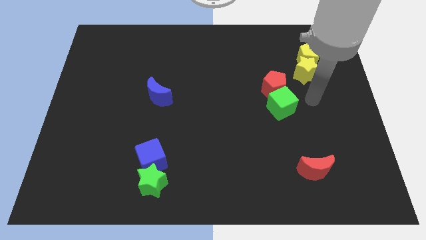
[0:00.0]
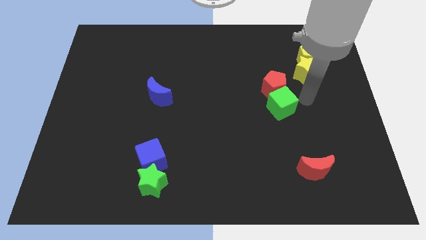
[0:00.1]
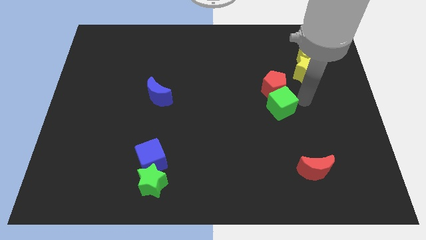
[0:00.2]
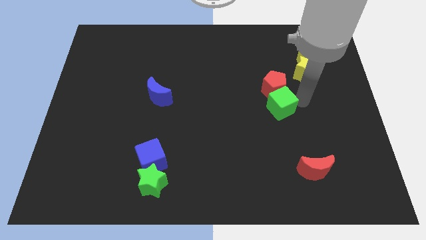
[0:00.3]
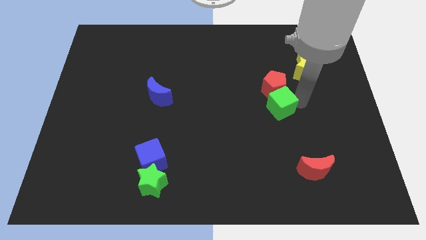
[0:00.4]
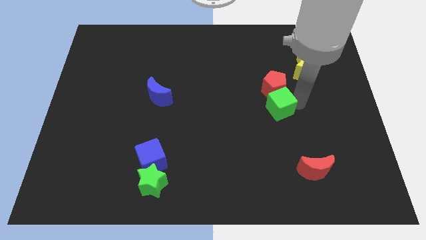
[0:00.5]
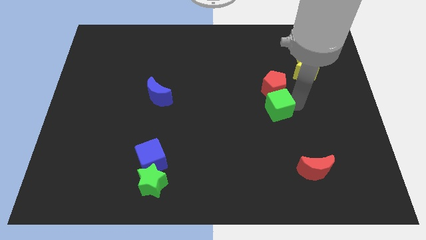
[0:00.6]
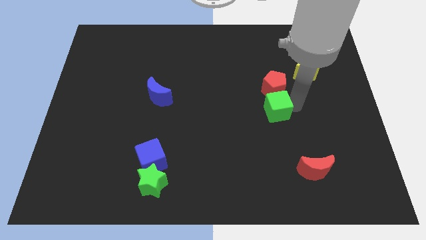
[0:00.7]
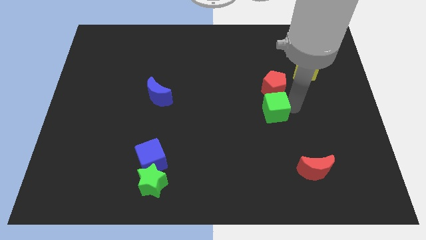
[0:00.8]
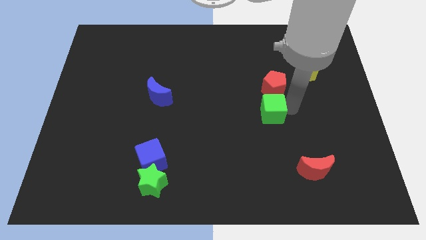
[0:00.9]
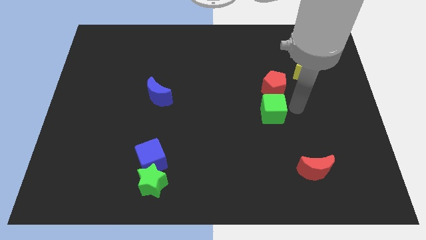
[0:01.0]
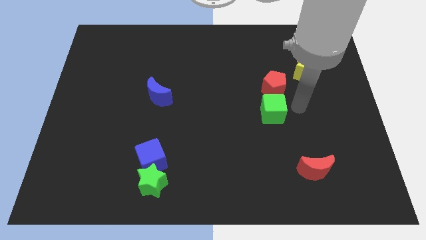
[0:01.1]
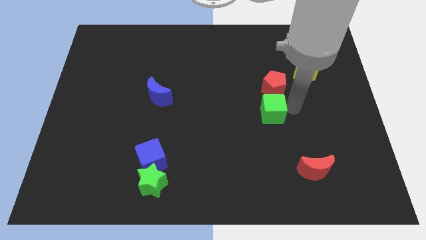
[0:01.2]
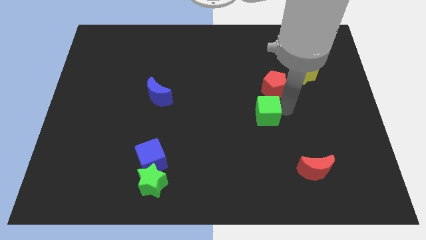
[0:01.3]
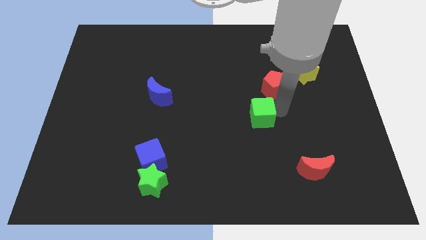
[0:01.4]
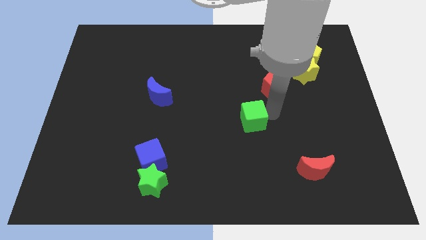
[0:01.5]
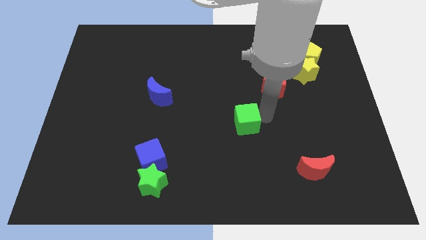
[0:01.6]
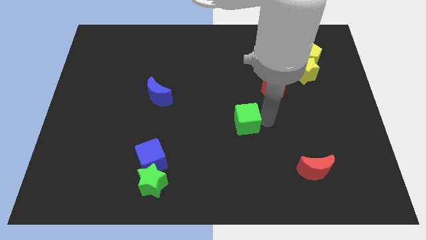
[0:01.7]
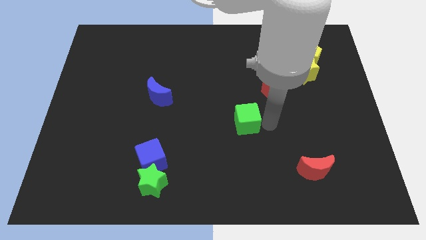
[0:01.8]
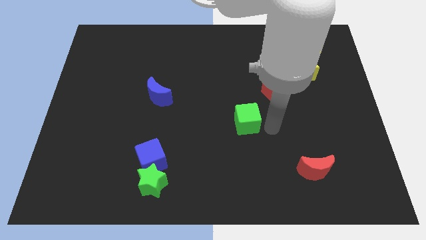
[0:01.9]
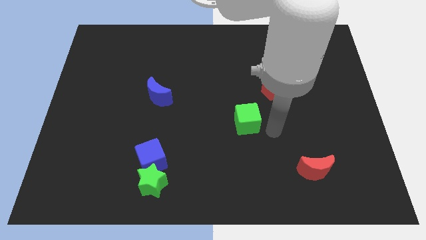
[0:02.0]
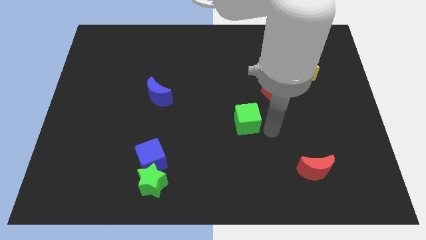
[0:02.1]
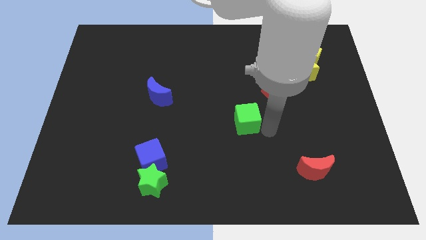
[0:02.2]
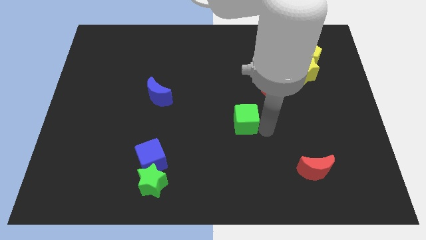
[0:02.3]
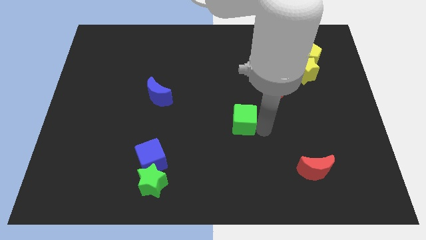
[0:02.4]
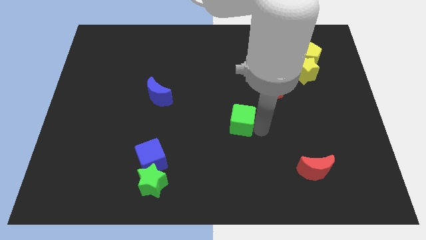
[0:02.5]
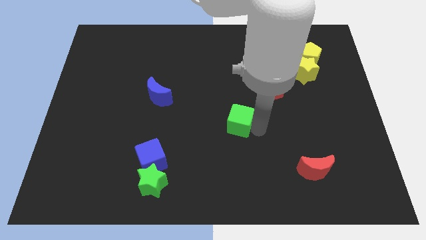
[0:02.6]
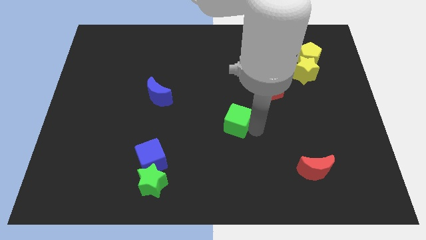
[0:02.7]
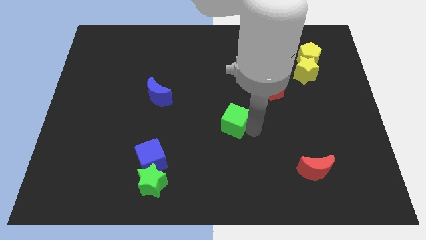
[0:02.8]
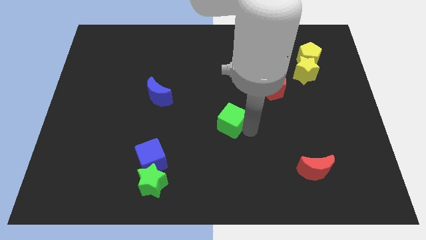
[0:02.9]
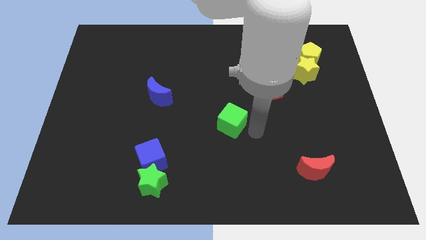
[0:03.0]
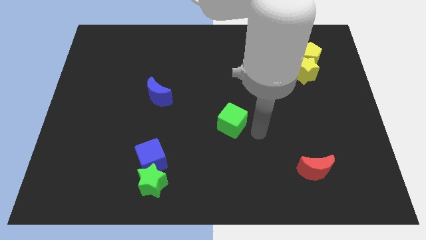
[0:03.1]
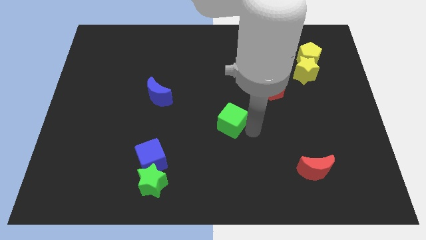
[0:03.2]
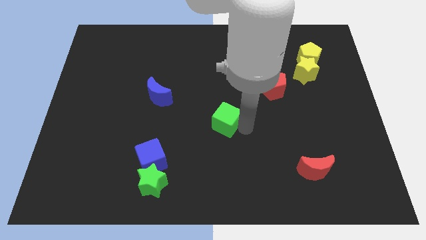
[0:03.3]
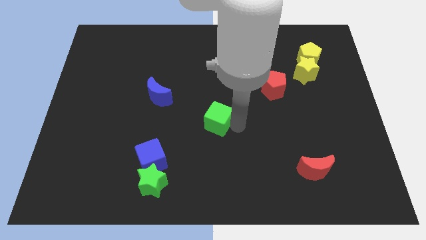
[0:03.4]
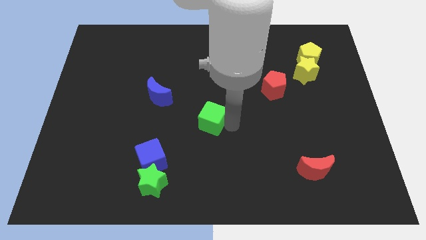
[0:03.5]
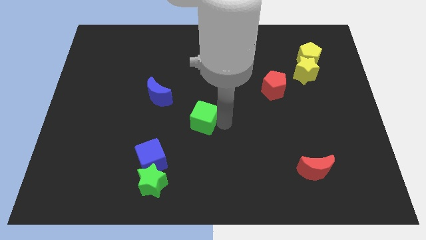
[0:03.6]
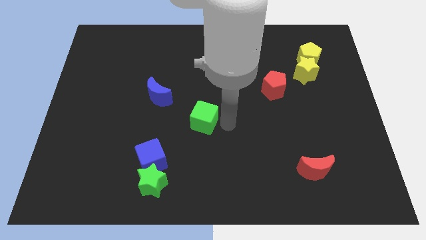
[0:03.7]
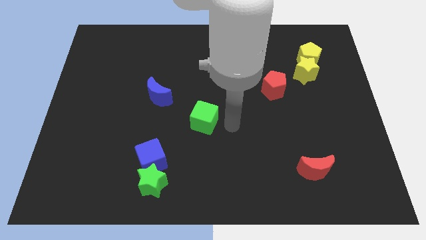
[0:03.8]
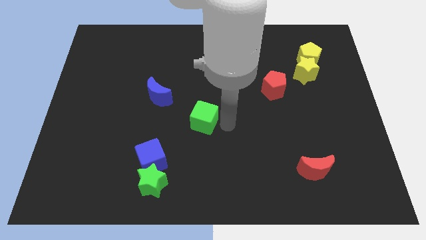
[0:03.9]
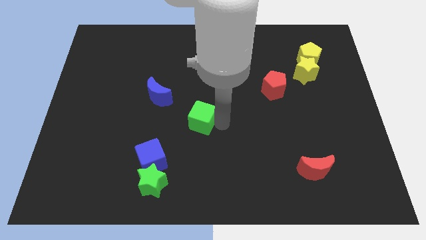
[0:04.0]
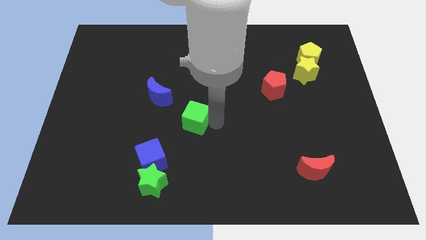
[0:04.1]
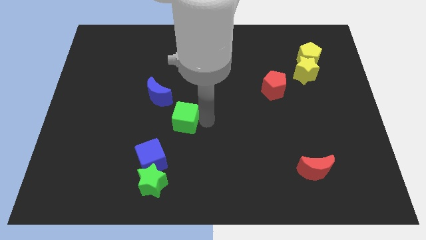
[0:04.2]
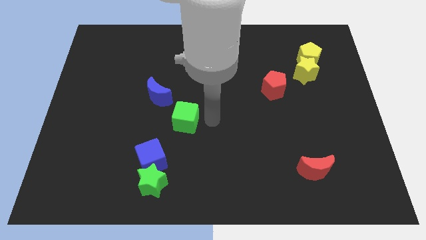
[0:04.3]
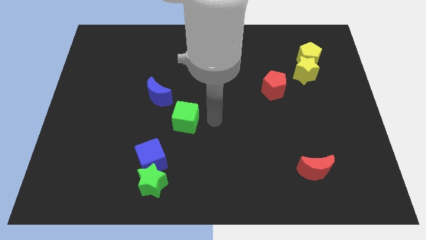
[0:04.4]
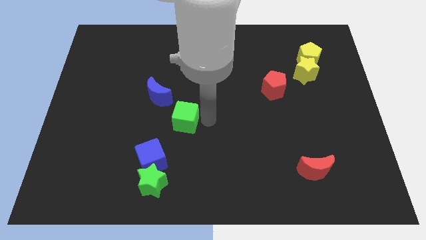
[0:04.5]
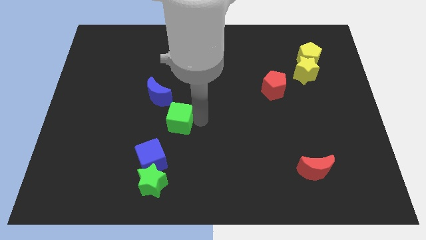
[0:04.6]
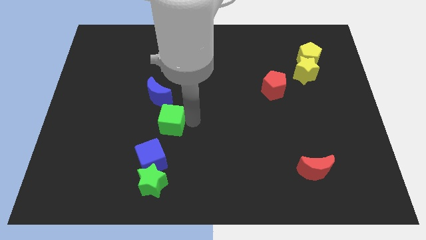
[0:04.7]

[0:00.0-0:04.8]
move the green cube to the top of the blue cube

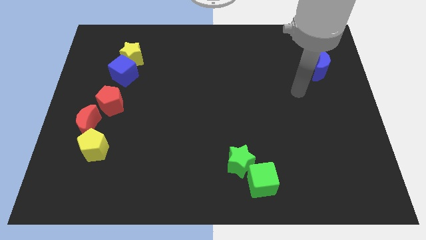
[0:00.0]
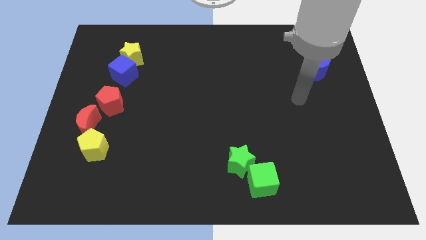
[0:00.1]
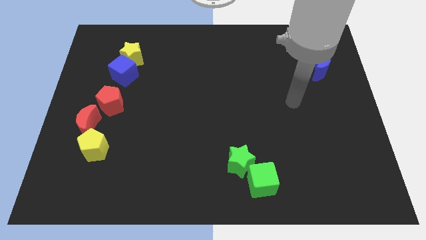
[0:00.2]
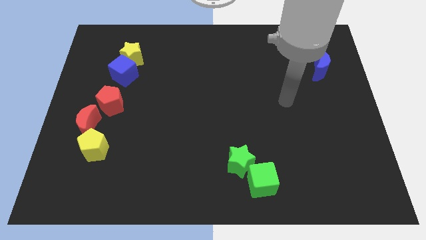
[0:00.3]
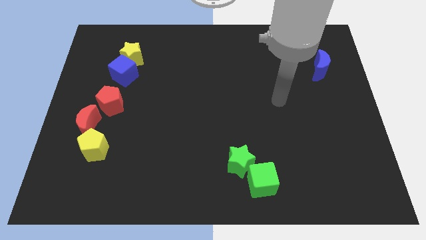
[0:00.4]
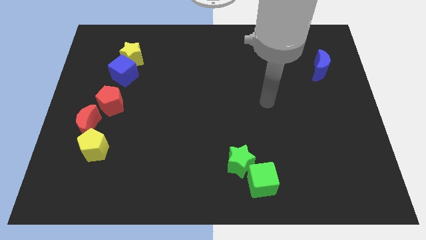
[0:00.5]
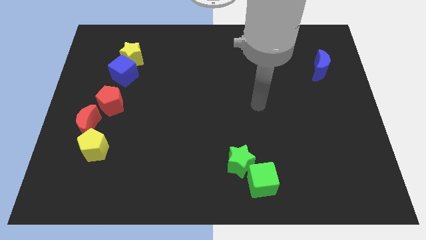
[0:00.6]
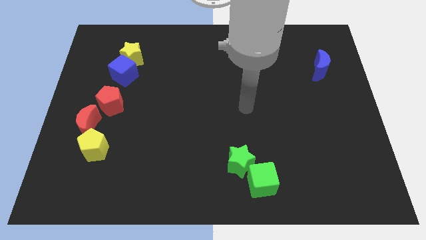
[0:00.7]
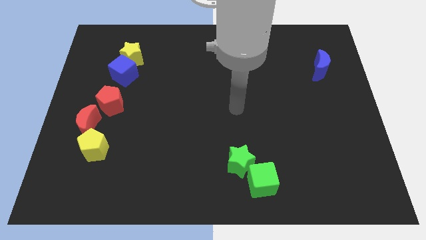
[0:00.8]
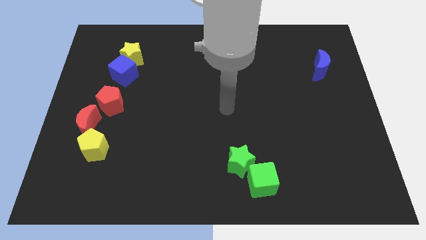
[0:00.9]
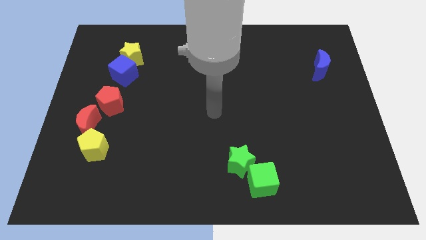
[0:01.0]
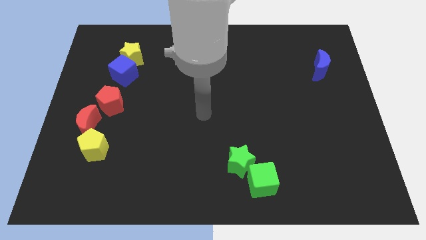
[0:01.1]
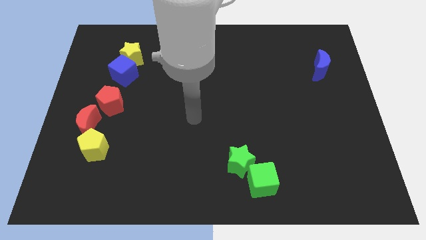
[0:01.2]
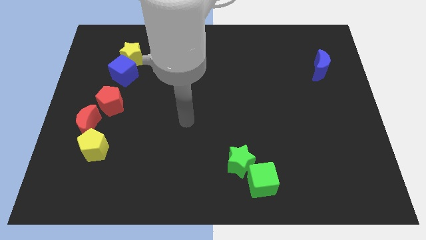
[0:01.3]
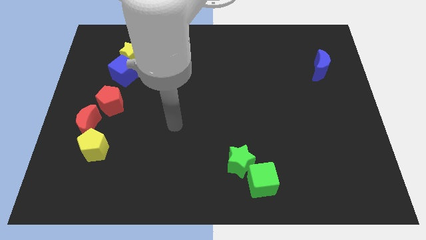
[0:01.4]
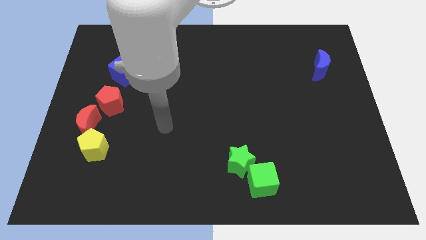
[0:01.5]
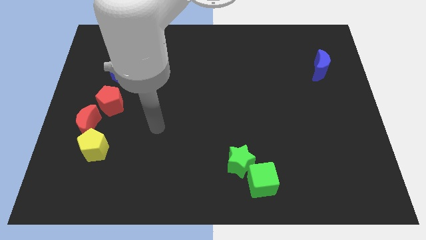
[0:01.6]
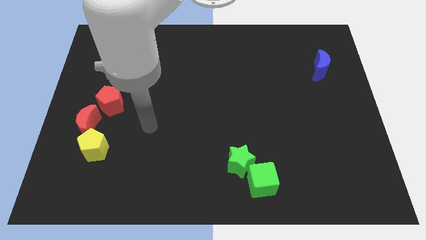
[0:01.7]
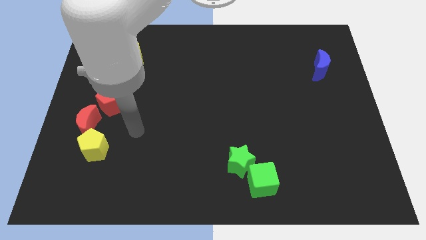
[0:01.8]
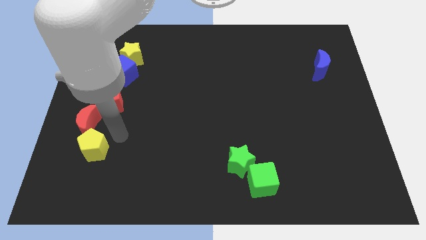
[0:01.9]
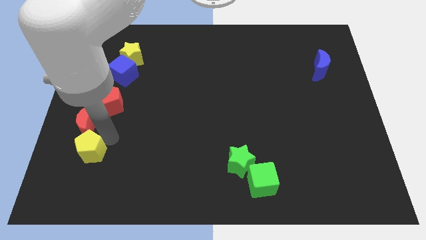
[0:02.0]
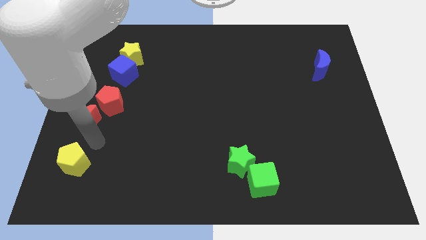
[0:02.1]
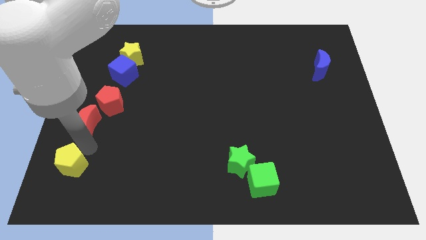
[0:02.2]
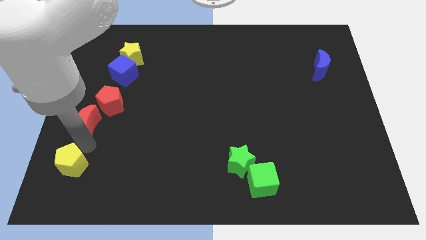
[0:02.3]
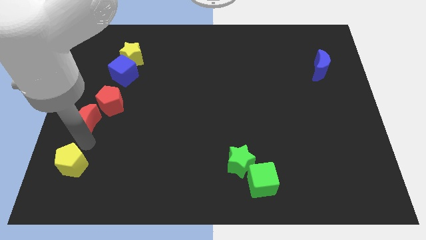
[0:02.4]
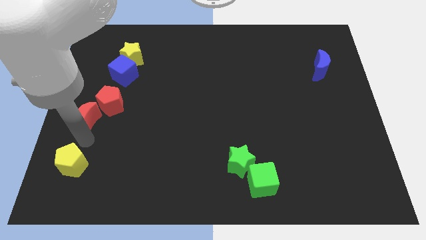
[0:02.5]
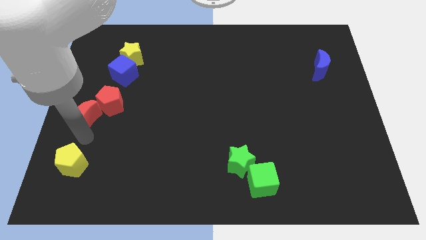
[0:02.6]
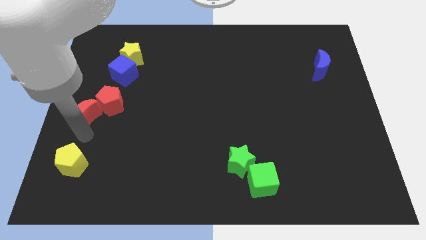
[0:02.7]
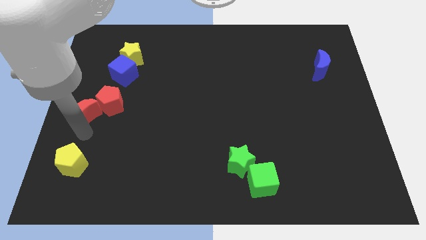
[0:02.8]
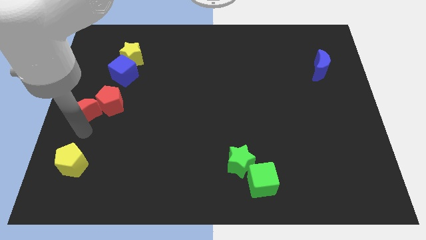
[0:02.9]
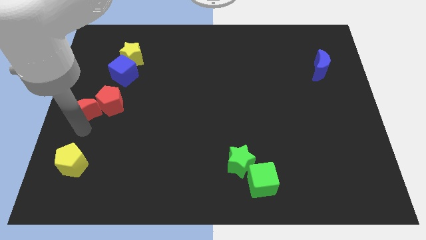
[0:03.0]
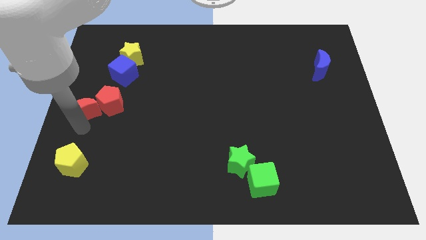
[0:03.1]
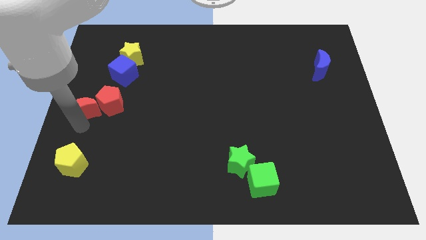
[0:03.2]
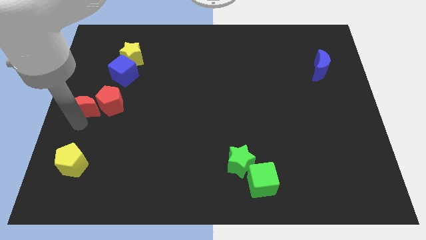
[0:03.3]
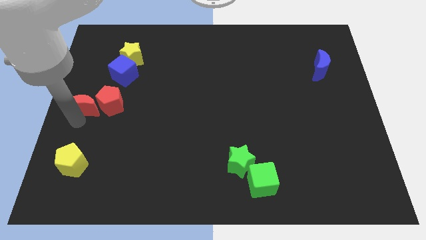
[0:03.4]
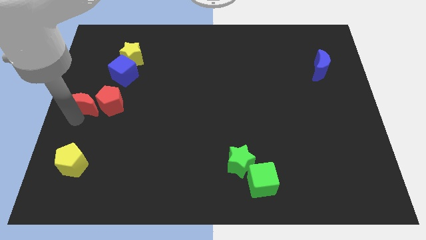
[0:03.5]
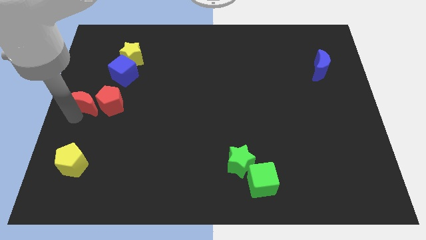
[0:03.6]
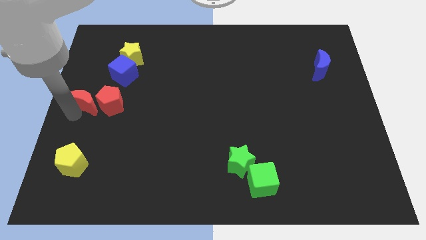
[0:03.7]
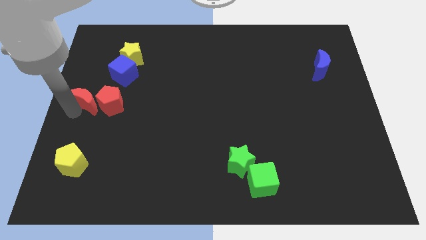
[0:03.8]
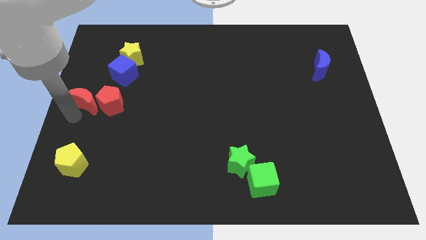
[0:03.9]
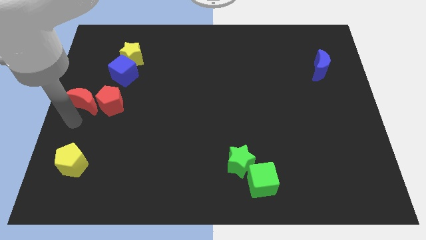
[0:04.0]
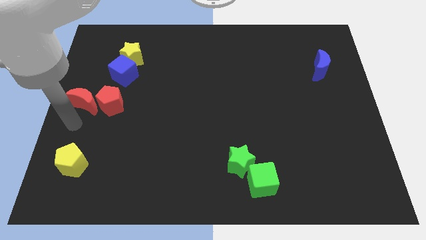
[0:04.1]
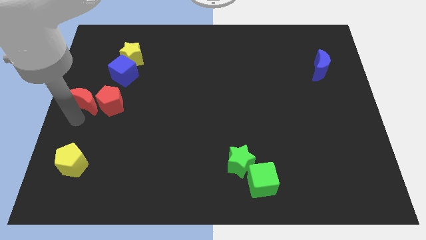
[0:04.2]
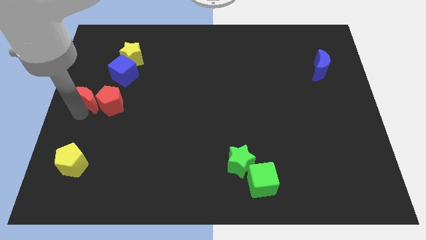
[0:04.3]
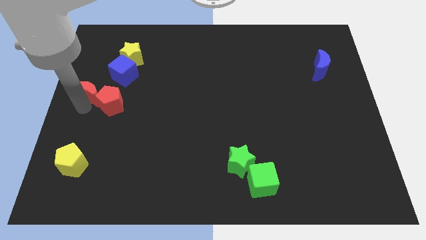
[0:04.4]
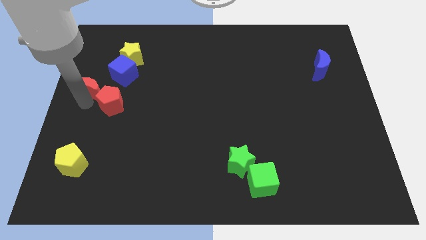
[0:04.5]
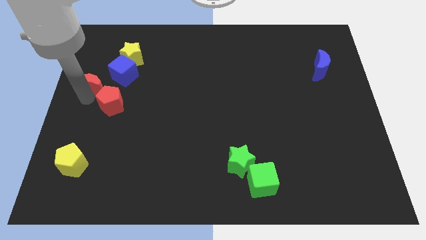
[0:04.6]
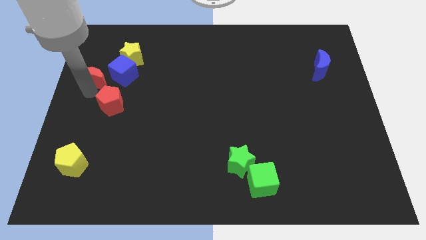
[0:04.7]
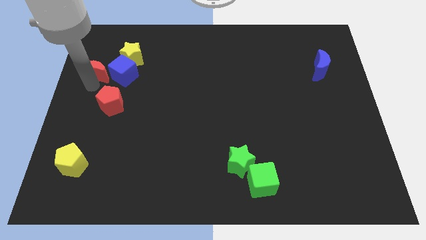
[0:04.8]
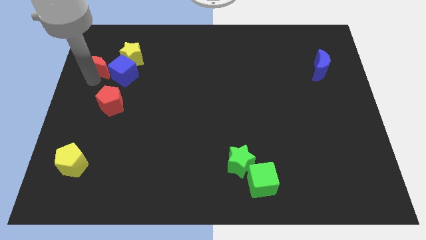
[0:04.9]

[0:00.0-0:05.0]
slide the red moon to the top left of the blue cube
